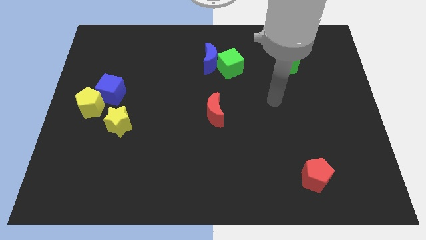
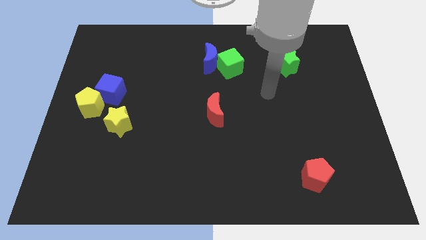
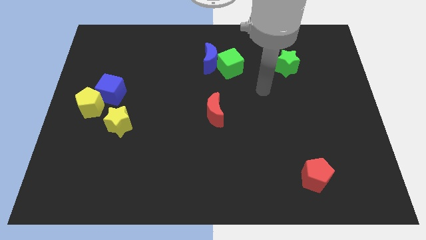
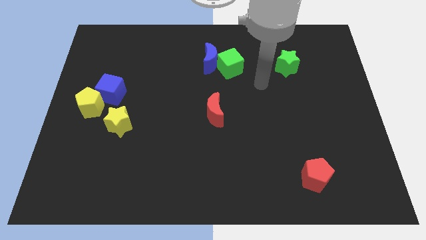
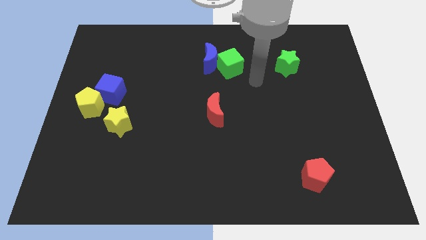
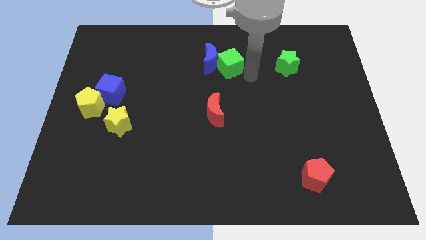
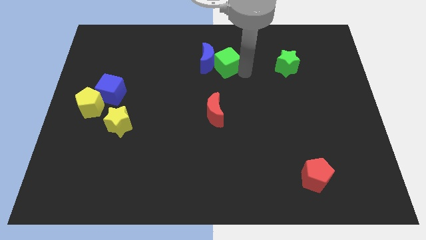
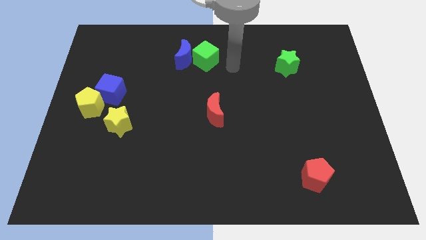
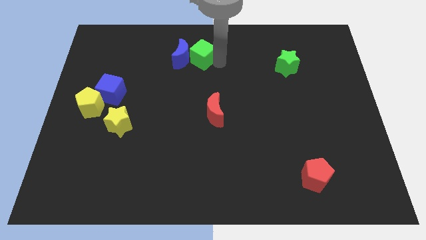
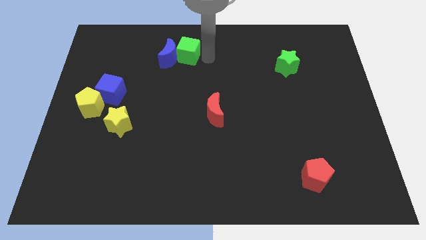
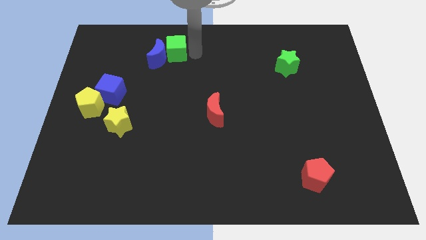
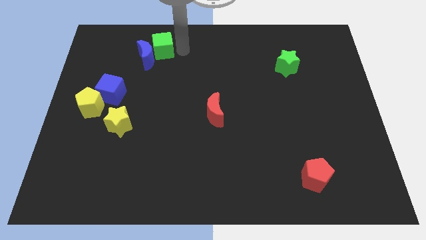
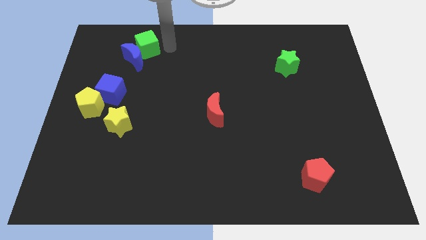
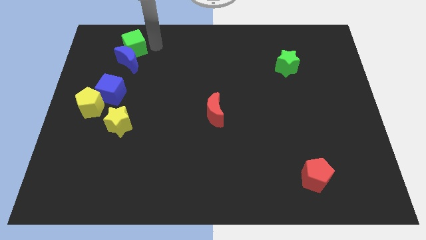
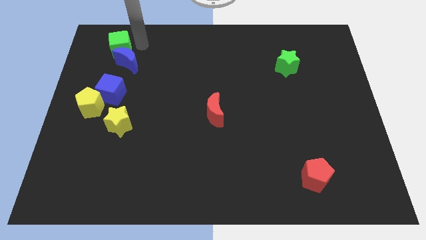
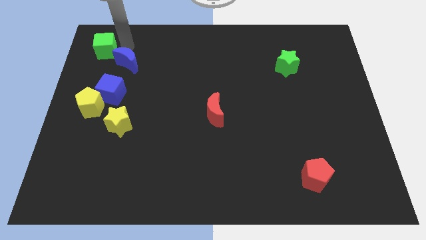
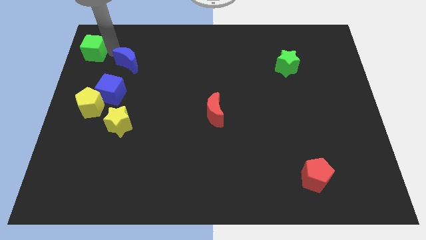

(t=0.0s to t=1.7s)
separate the blue moon from the green cube

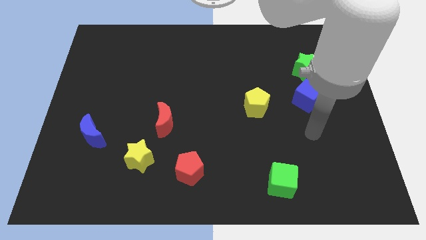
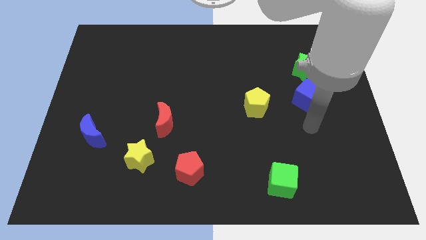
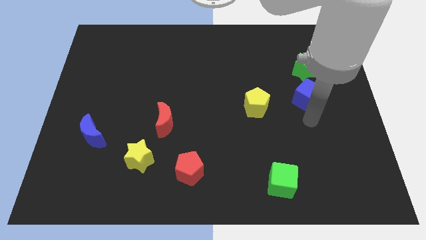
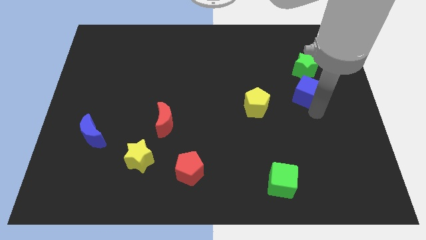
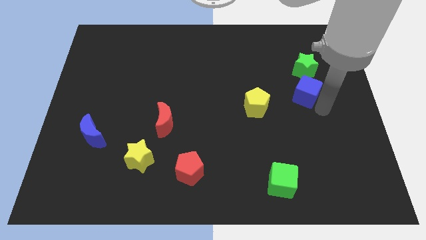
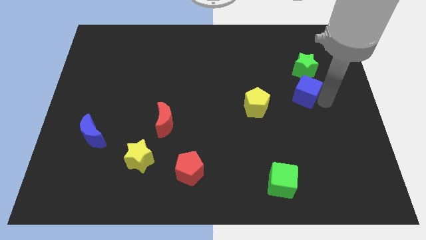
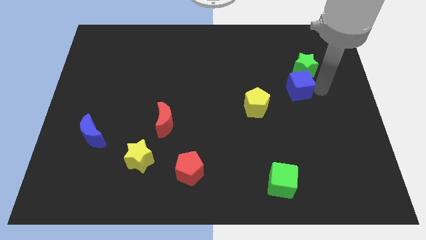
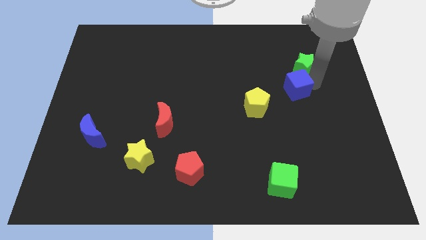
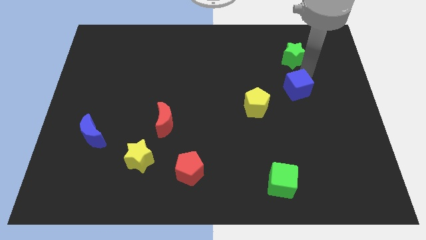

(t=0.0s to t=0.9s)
pull the blue cube apart from the green star

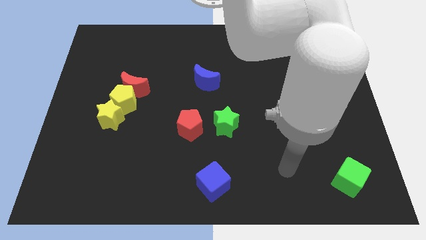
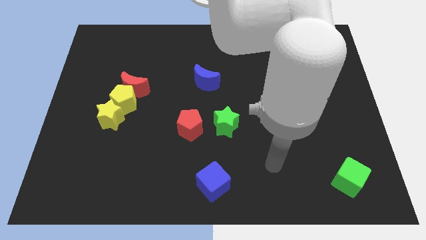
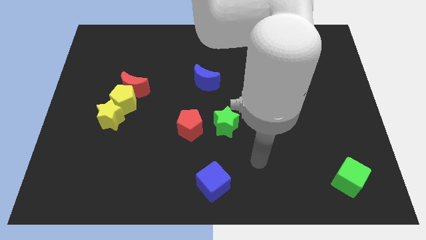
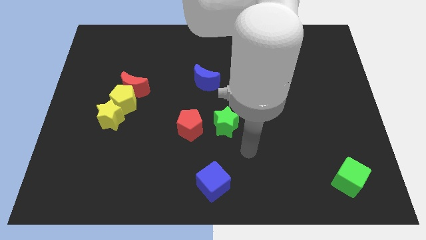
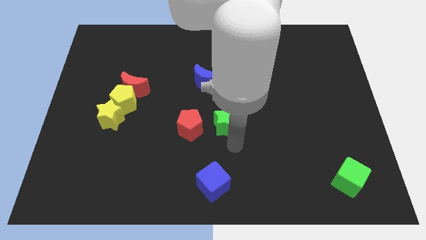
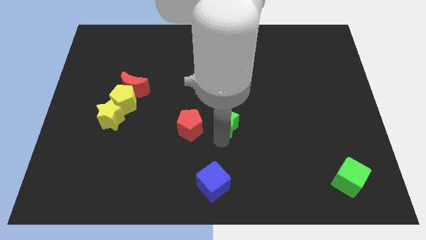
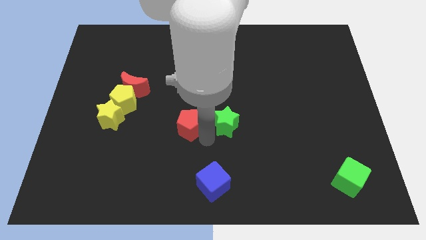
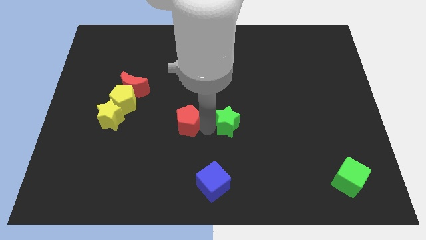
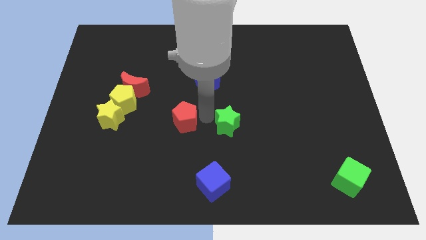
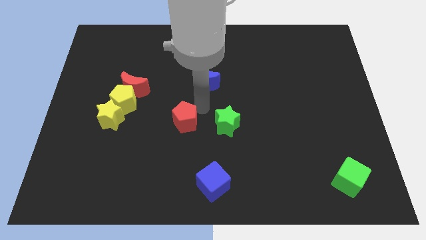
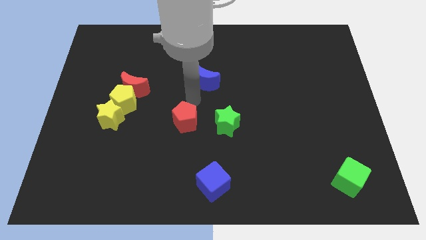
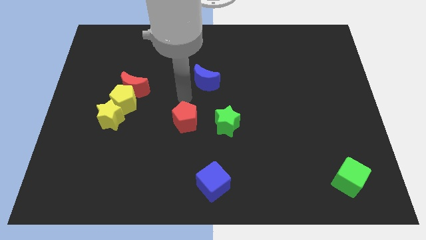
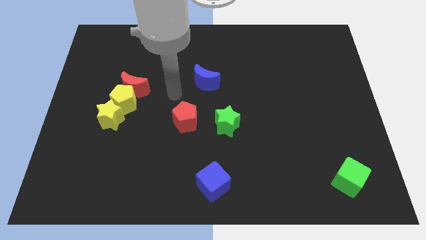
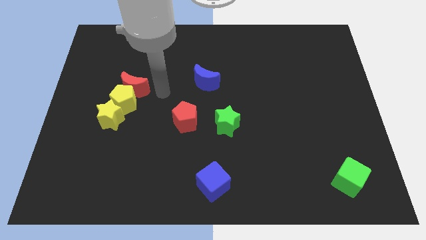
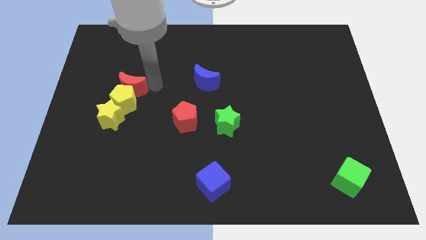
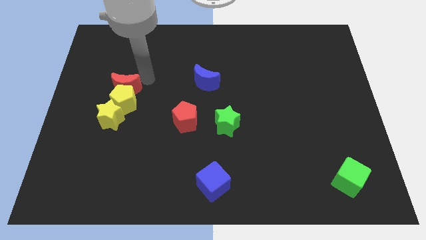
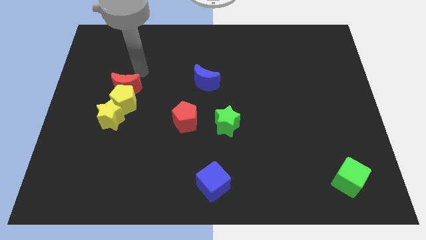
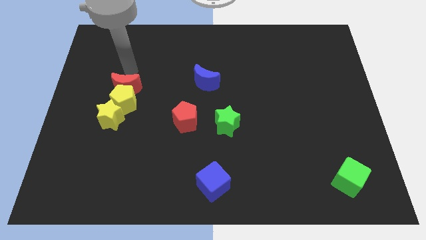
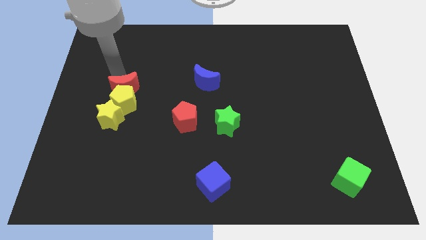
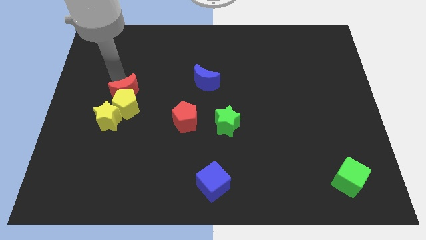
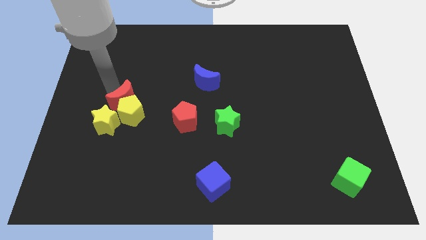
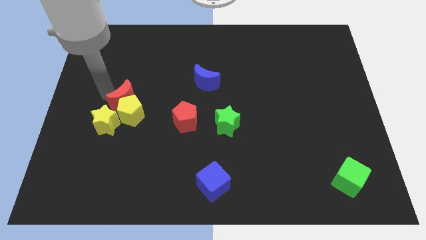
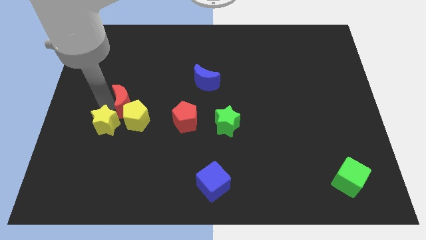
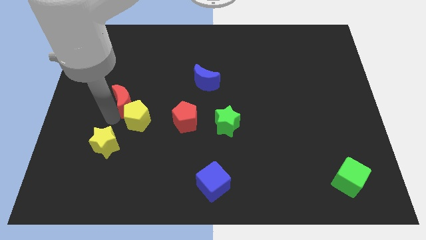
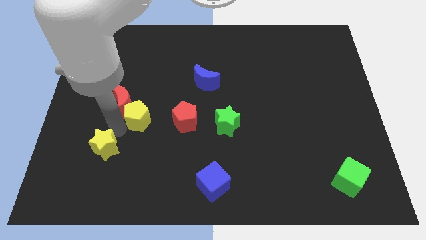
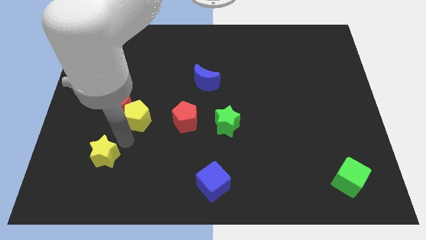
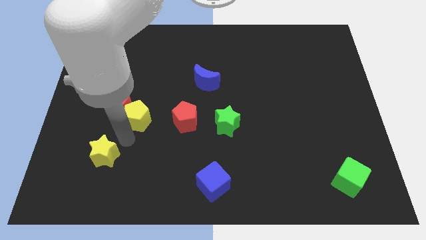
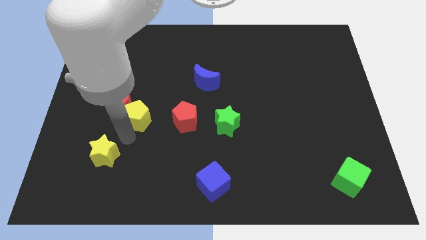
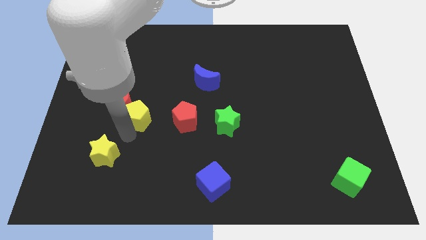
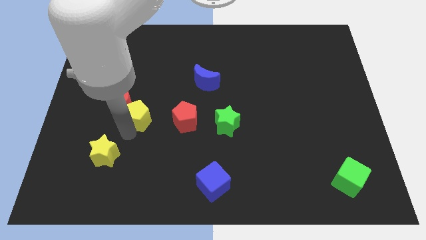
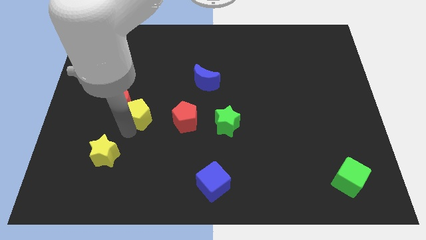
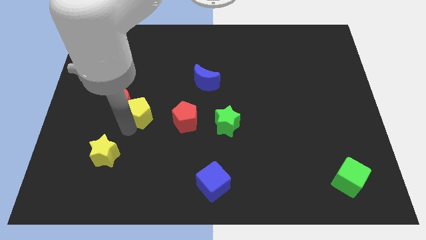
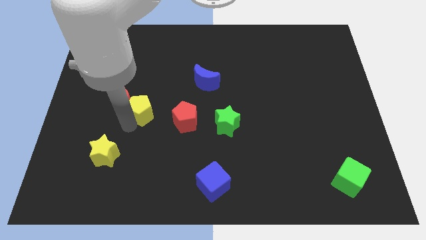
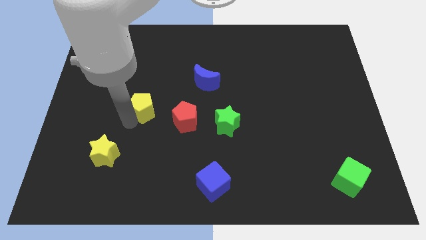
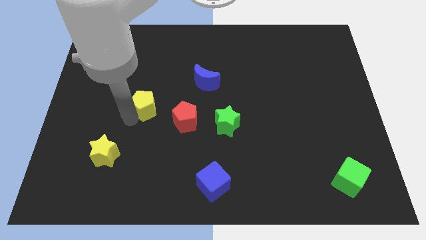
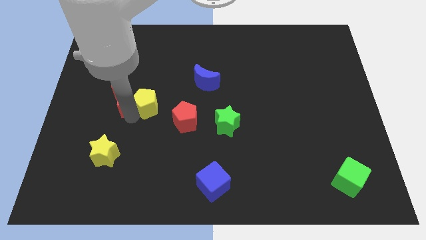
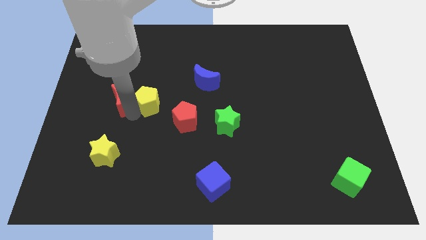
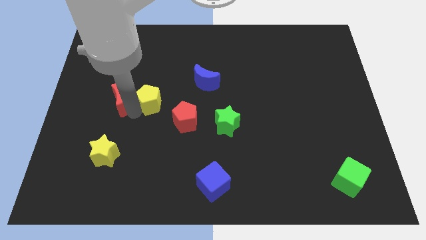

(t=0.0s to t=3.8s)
move the yellow pentagon away from the red moon and yellow star

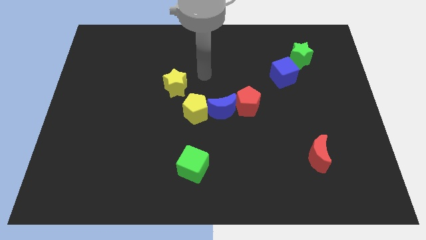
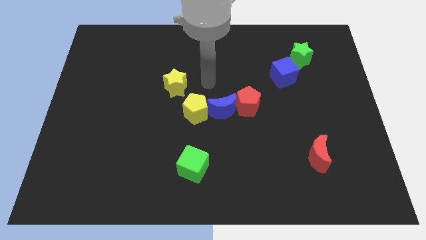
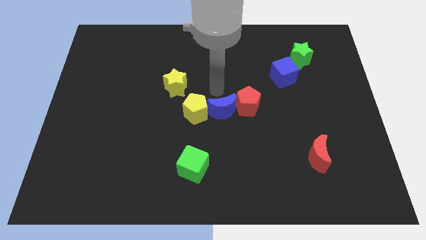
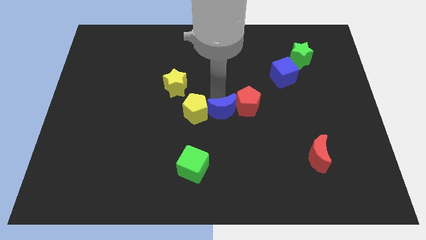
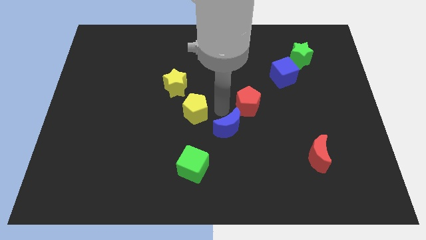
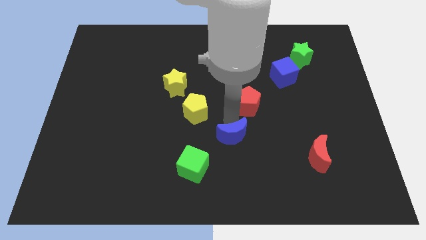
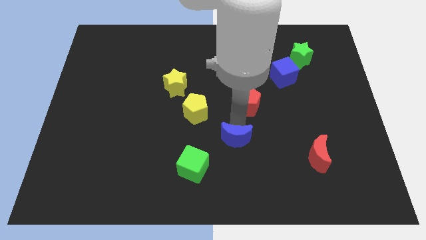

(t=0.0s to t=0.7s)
pull the red pentagon apart from the blue moon

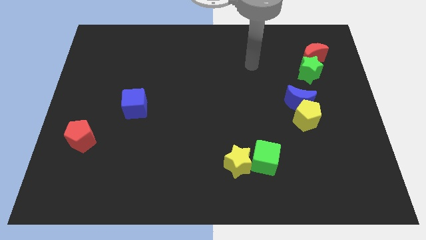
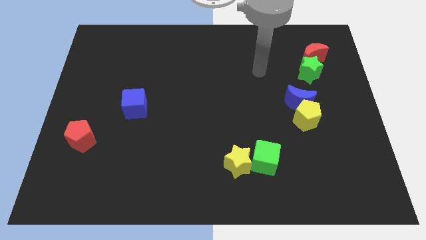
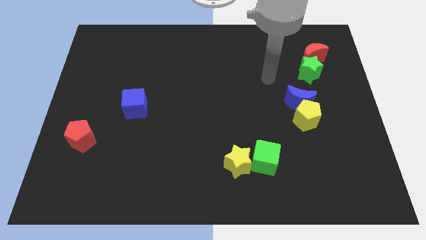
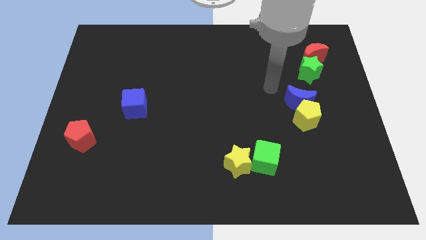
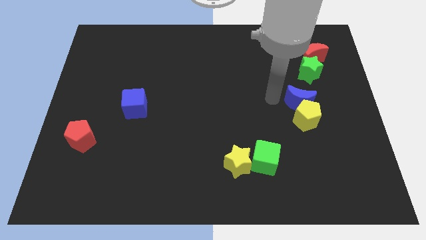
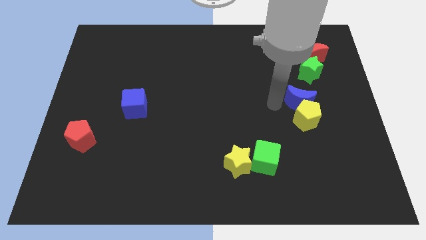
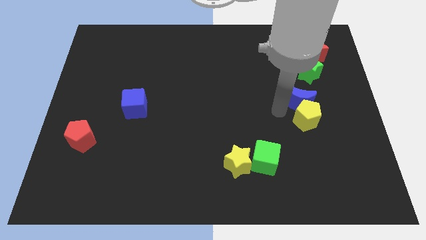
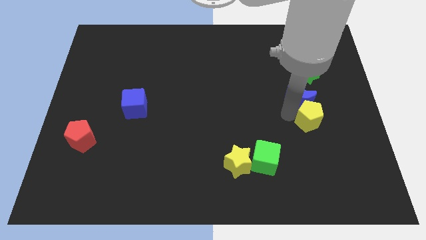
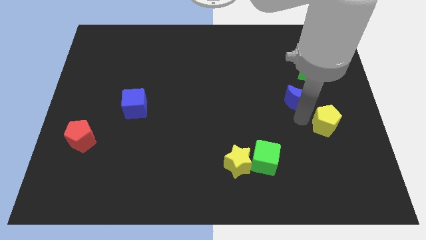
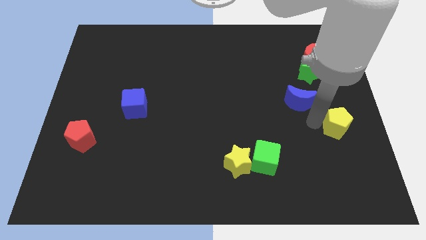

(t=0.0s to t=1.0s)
pull the blue moon apart from the yellow pentagon

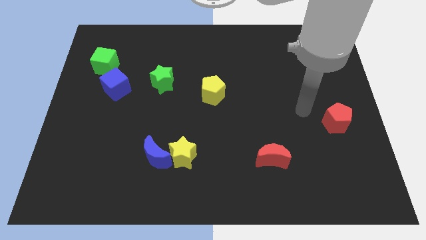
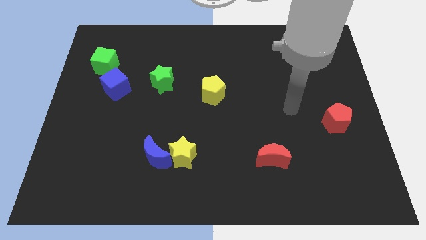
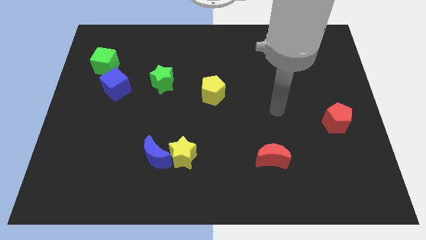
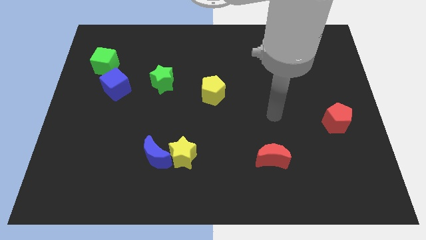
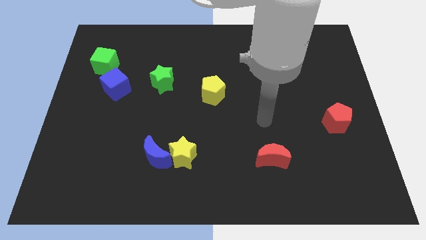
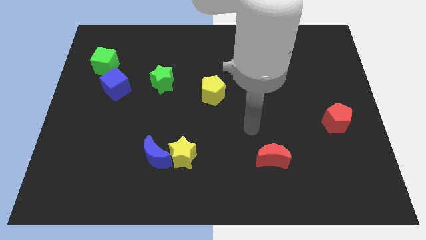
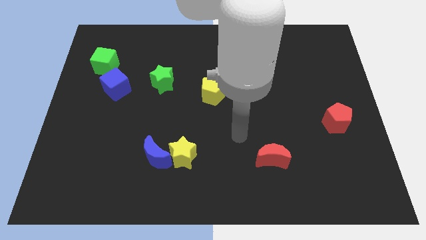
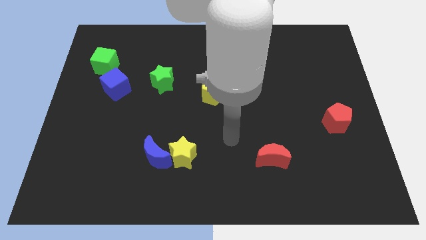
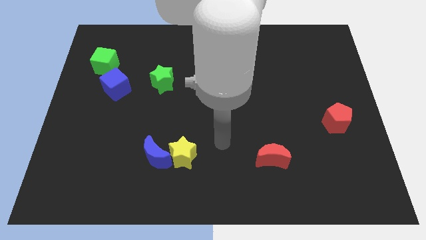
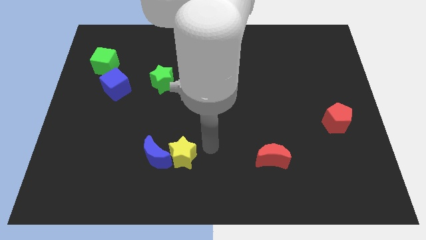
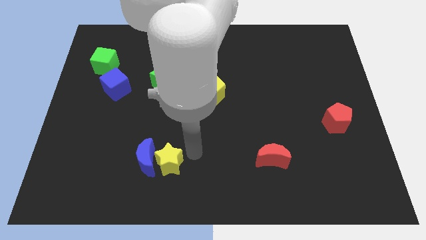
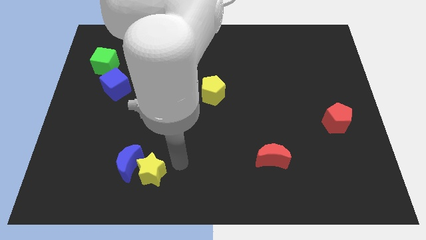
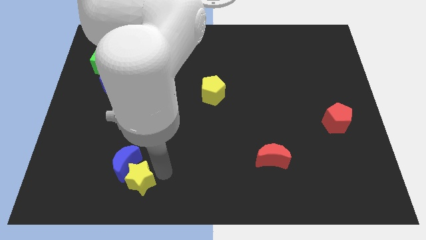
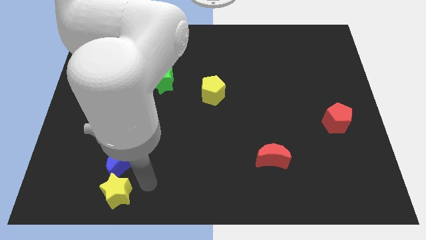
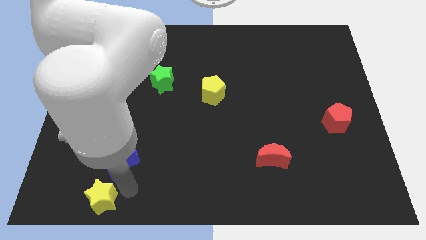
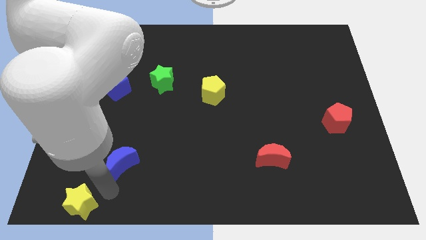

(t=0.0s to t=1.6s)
pull the blue moon apart from the yellow star
